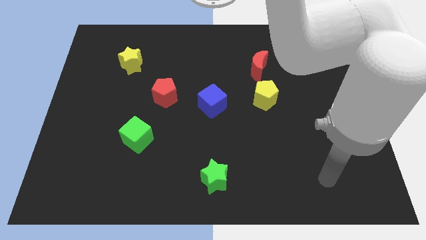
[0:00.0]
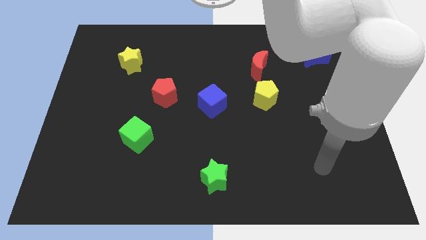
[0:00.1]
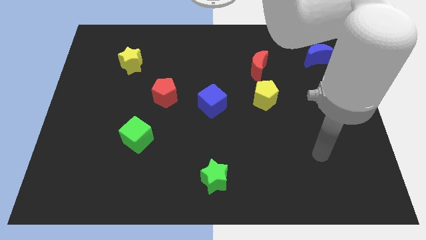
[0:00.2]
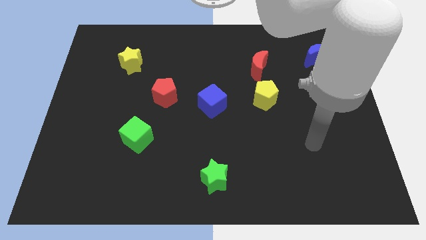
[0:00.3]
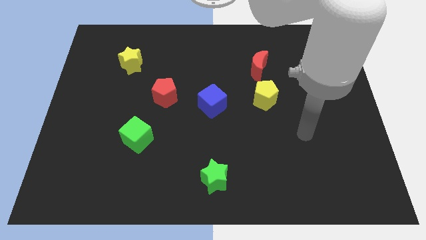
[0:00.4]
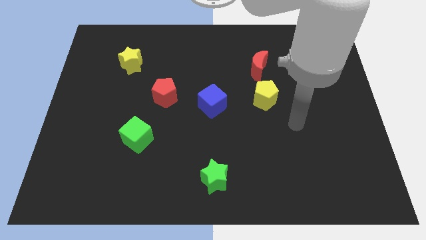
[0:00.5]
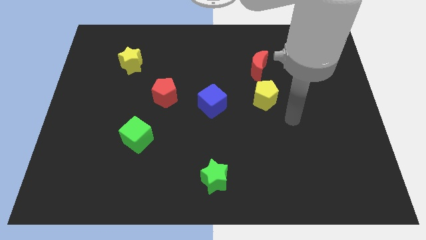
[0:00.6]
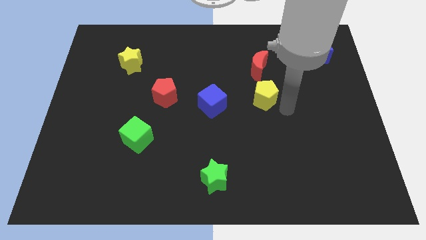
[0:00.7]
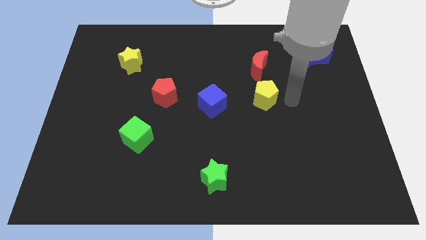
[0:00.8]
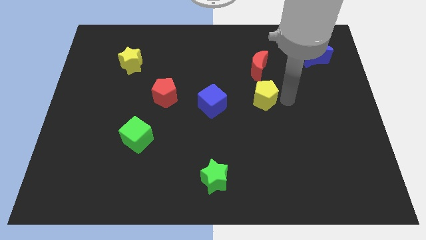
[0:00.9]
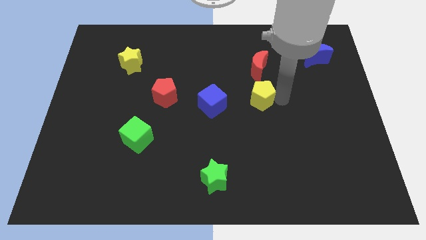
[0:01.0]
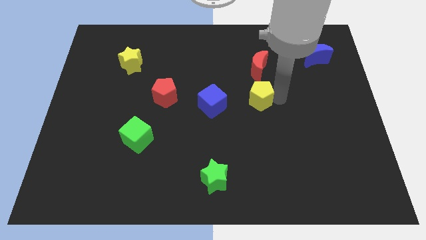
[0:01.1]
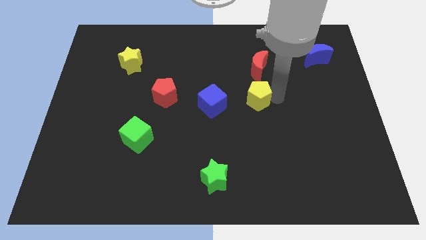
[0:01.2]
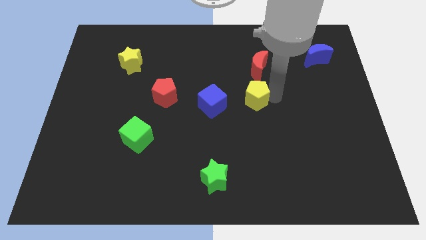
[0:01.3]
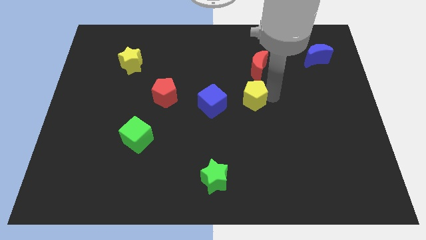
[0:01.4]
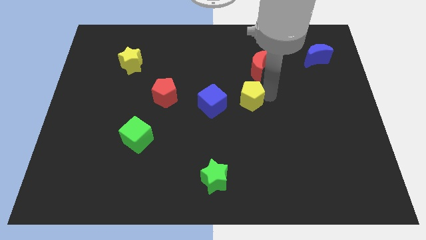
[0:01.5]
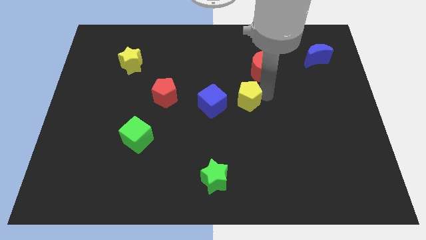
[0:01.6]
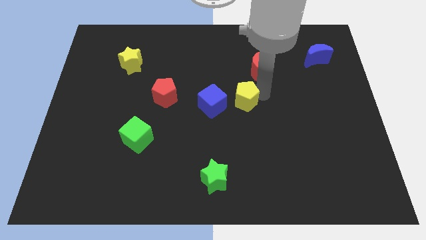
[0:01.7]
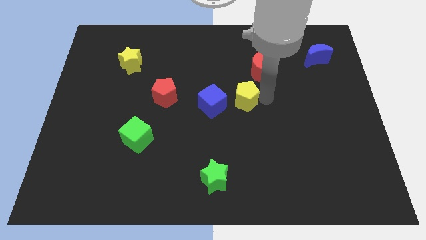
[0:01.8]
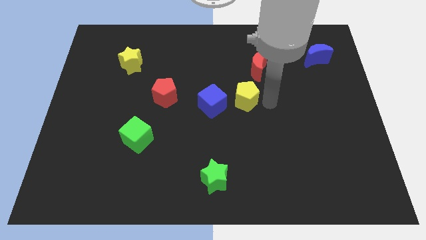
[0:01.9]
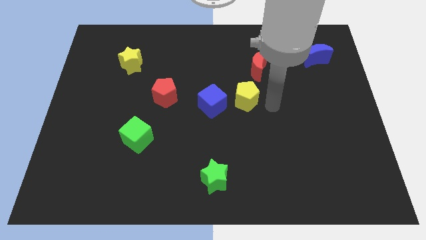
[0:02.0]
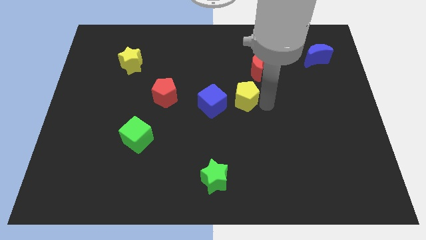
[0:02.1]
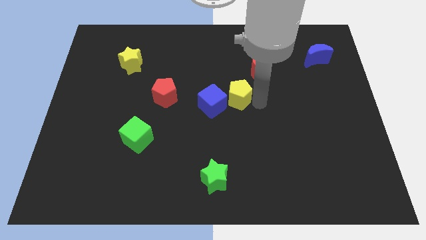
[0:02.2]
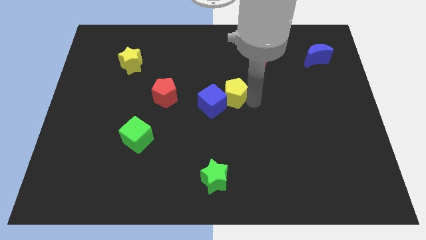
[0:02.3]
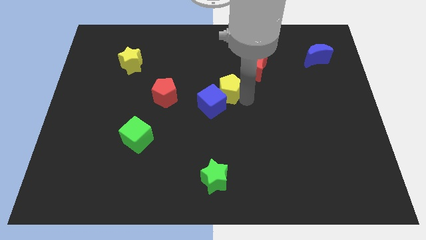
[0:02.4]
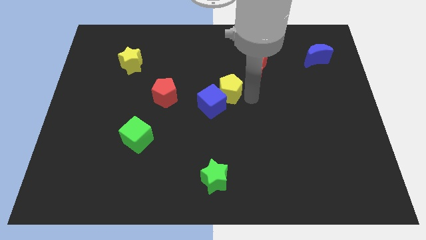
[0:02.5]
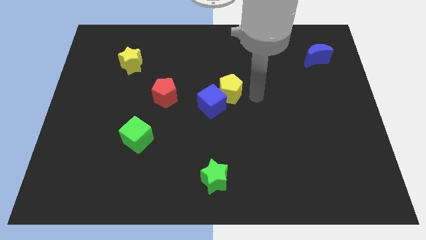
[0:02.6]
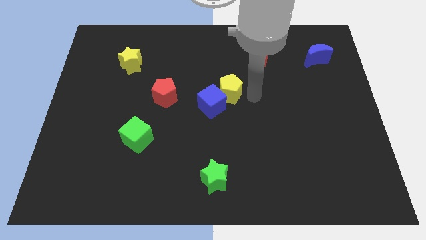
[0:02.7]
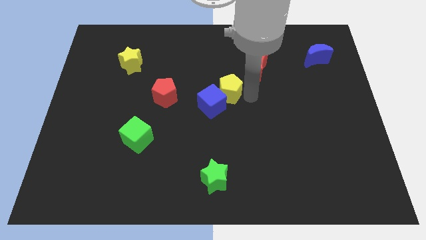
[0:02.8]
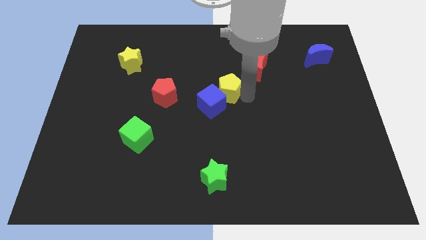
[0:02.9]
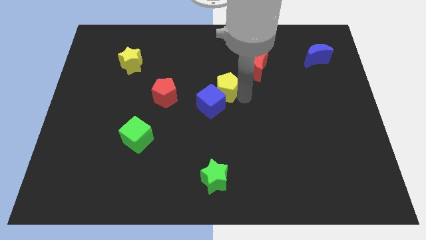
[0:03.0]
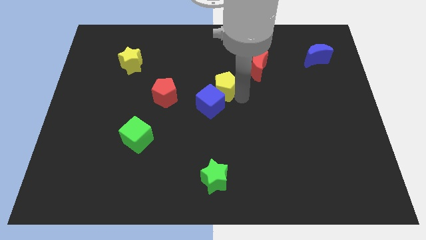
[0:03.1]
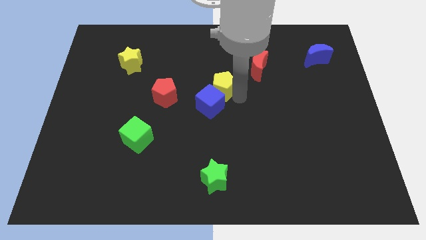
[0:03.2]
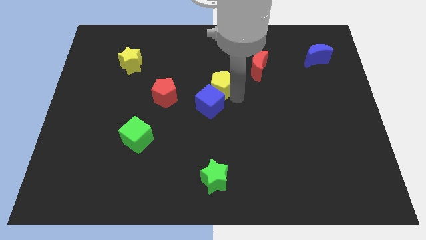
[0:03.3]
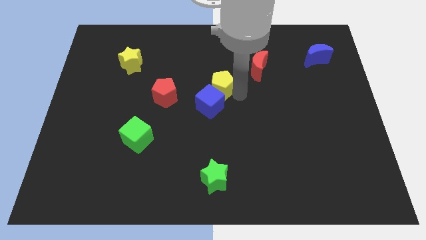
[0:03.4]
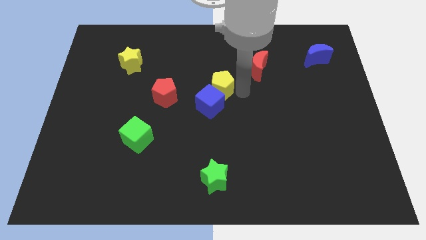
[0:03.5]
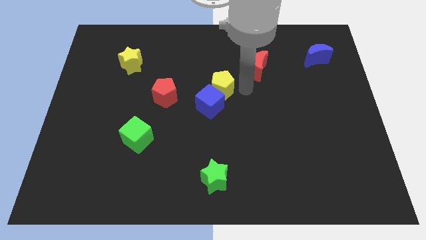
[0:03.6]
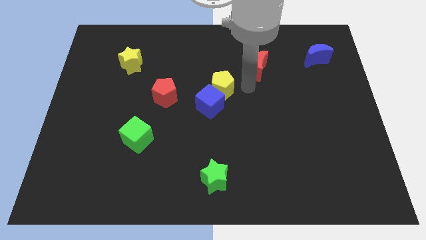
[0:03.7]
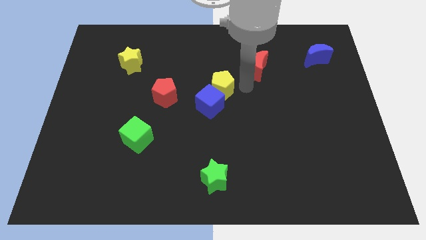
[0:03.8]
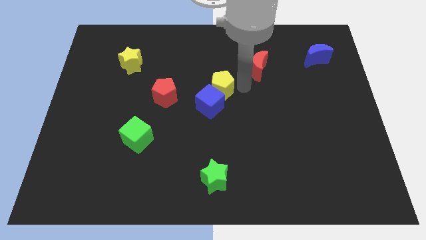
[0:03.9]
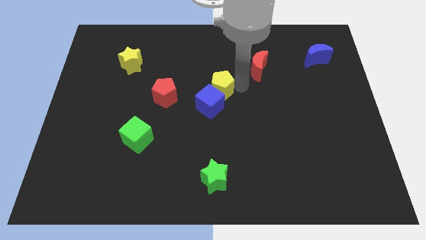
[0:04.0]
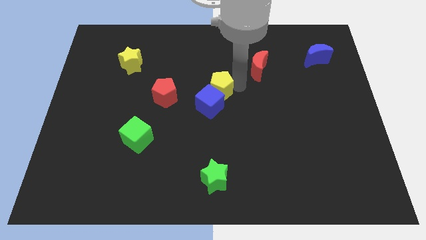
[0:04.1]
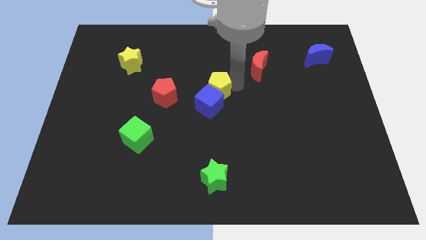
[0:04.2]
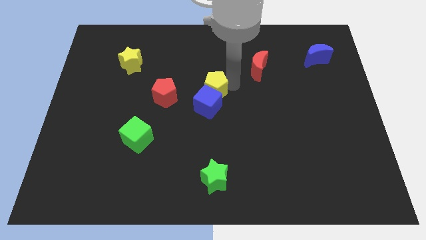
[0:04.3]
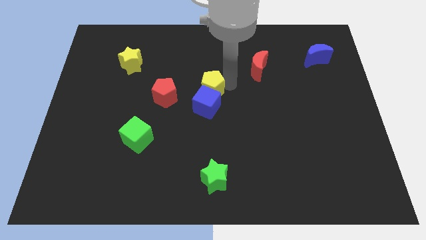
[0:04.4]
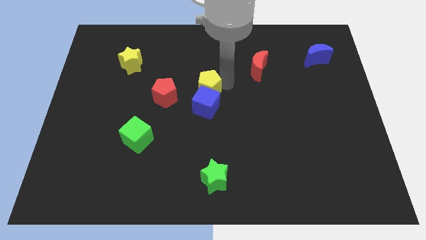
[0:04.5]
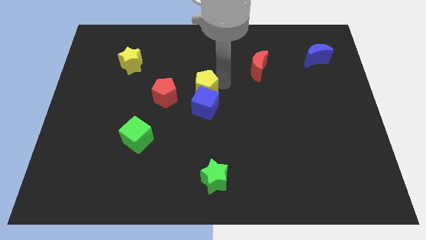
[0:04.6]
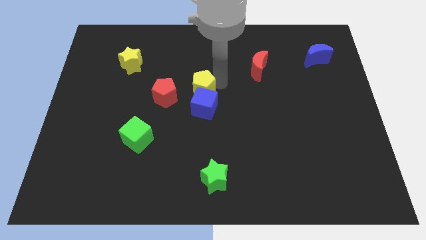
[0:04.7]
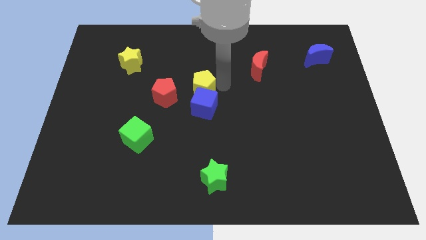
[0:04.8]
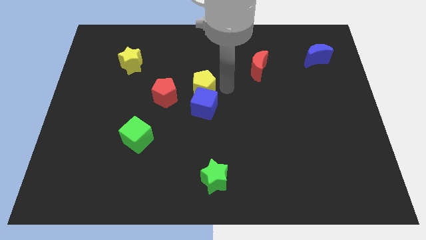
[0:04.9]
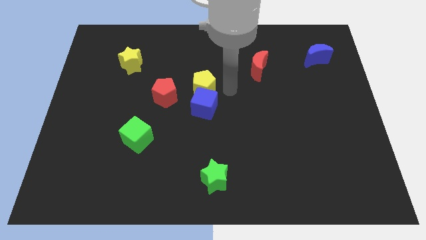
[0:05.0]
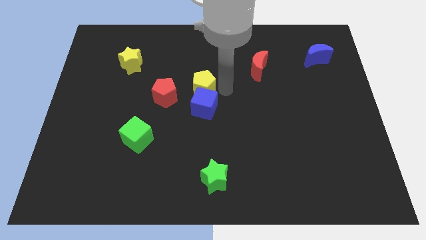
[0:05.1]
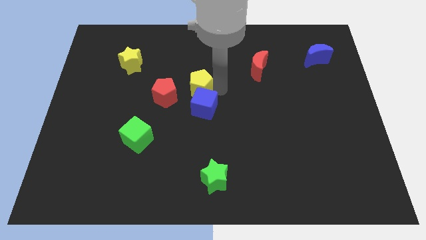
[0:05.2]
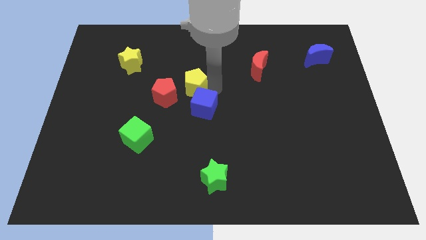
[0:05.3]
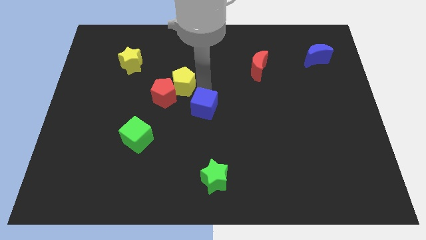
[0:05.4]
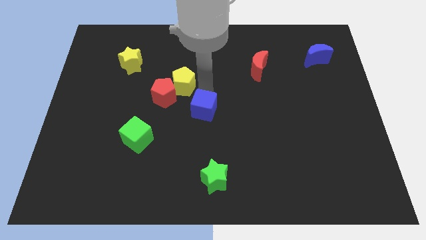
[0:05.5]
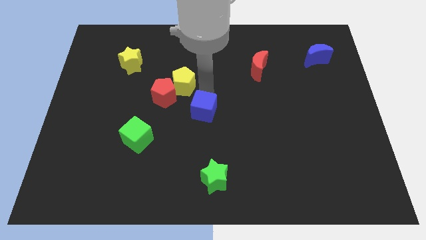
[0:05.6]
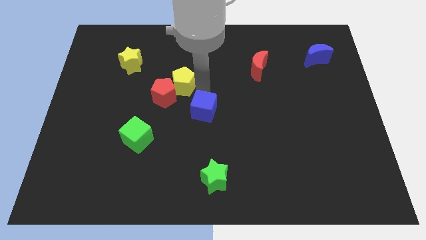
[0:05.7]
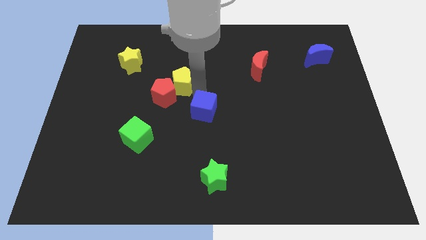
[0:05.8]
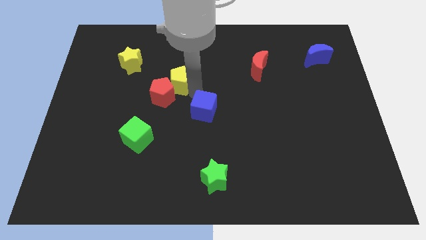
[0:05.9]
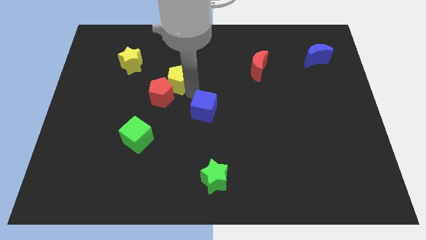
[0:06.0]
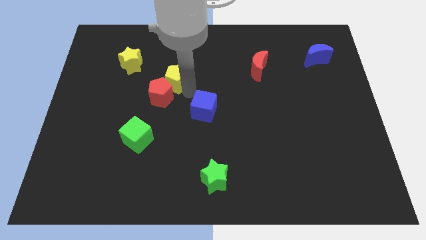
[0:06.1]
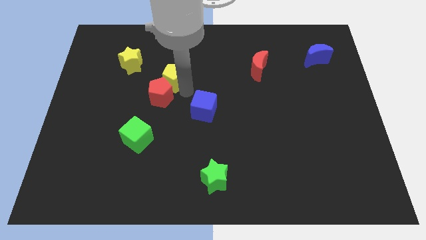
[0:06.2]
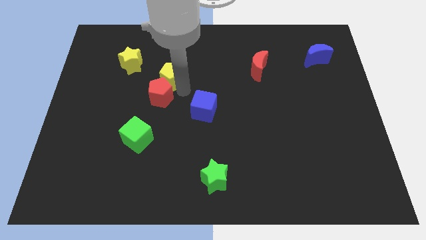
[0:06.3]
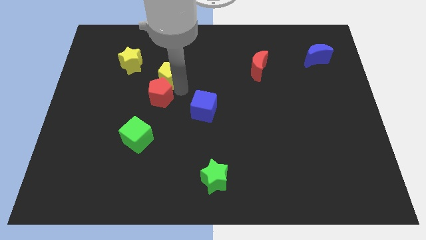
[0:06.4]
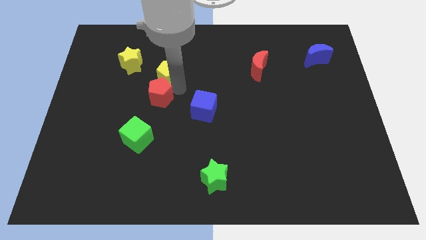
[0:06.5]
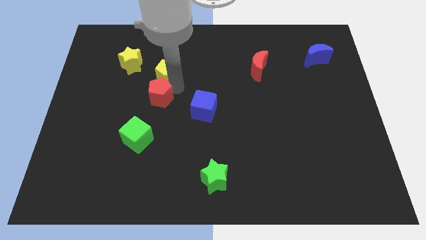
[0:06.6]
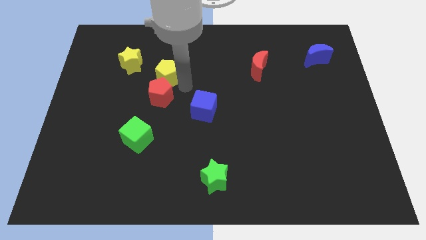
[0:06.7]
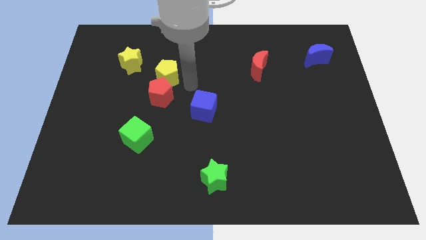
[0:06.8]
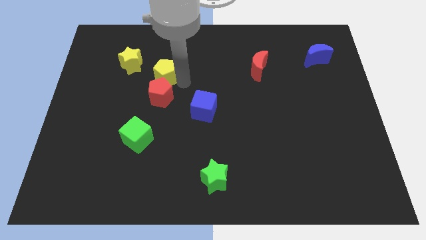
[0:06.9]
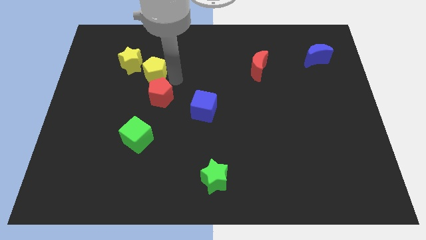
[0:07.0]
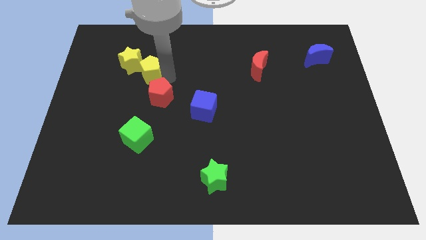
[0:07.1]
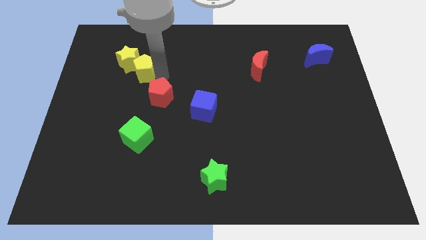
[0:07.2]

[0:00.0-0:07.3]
put the yellow pentagon next to the yellow star
